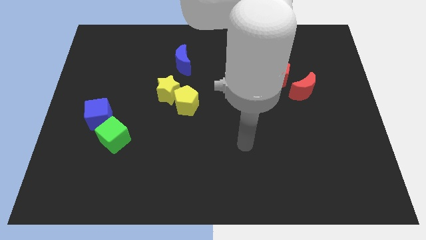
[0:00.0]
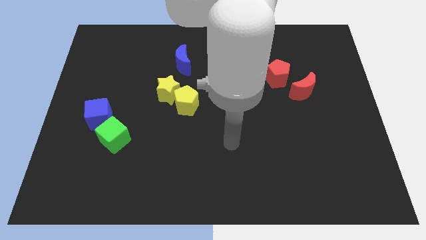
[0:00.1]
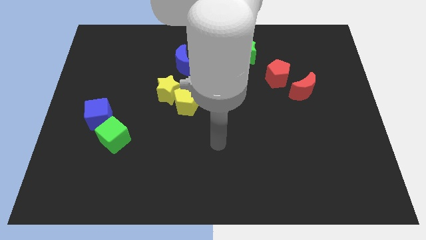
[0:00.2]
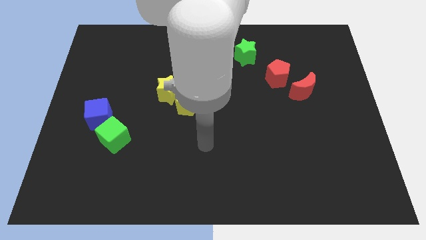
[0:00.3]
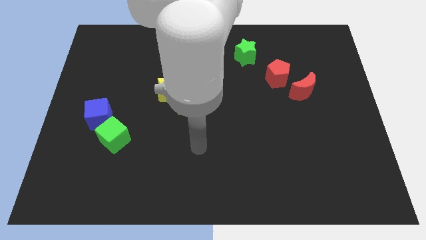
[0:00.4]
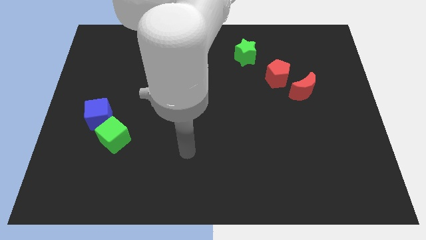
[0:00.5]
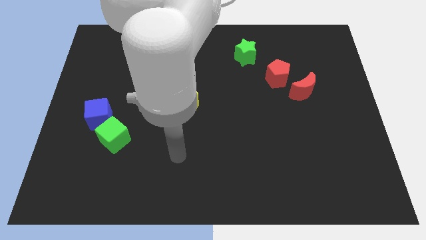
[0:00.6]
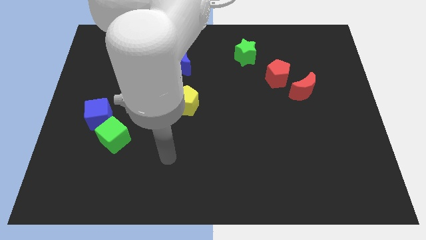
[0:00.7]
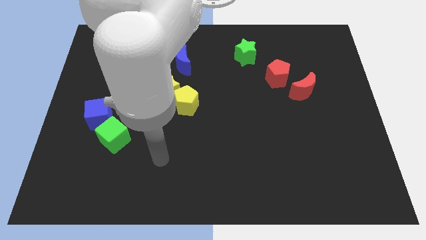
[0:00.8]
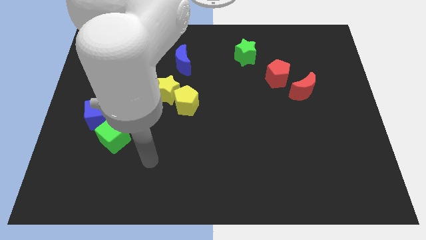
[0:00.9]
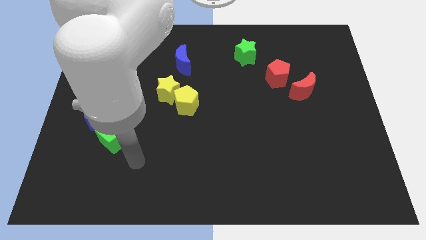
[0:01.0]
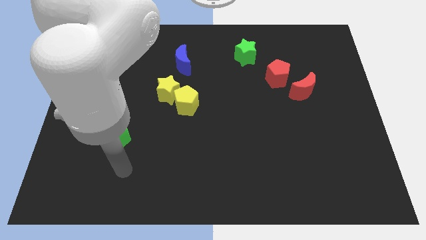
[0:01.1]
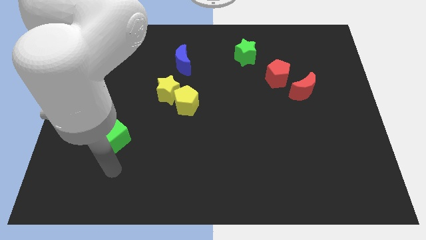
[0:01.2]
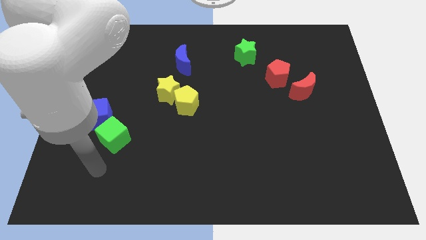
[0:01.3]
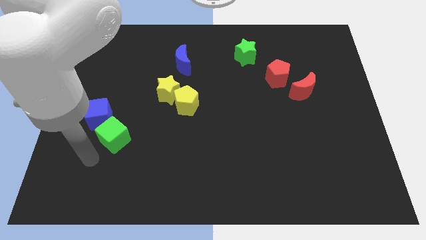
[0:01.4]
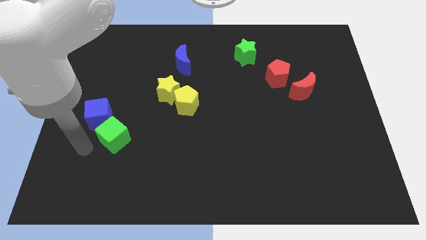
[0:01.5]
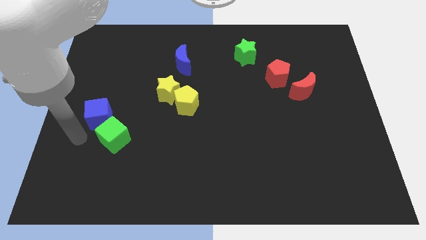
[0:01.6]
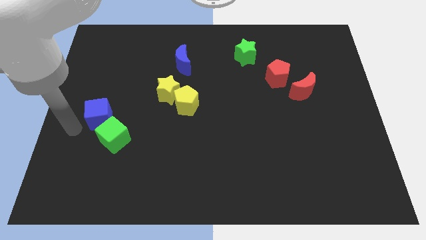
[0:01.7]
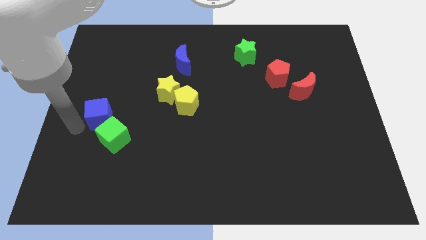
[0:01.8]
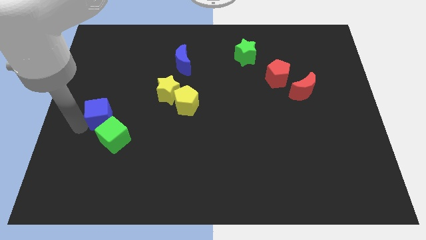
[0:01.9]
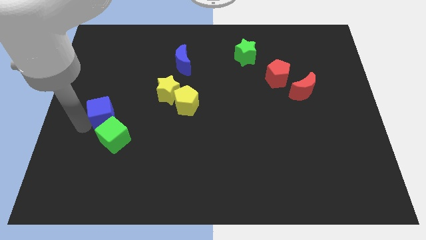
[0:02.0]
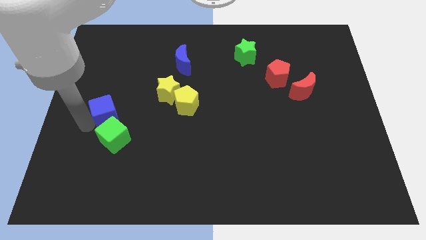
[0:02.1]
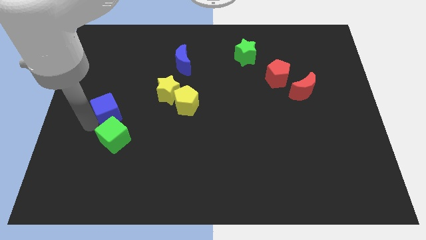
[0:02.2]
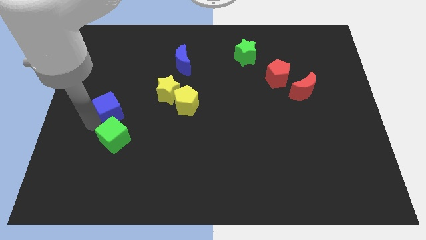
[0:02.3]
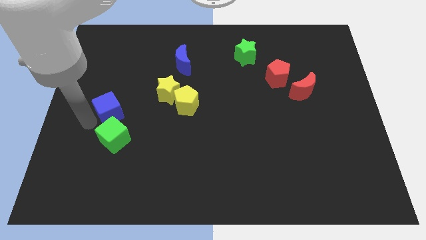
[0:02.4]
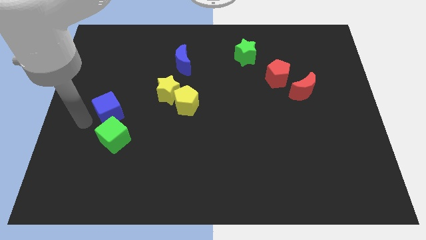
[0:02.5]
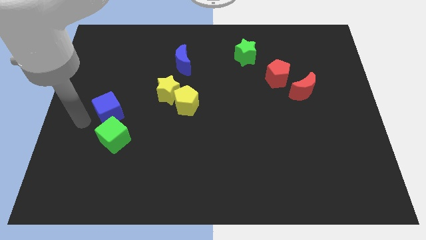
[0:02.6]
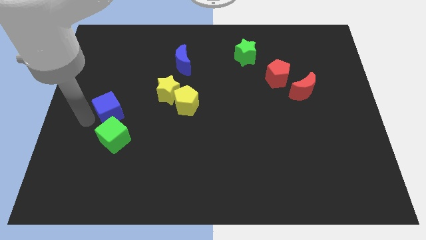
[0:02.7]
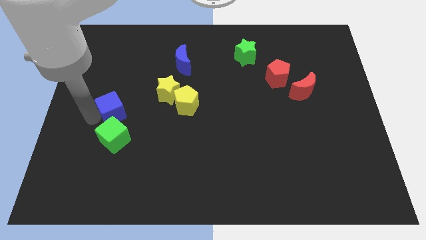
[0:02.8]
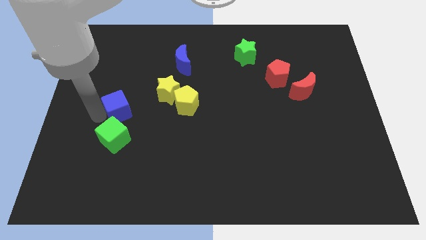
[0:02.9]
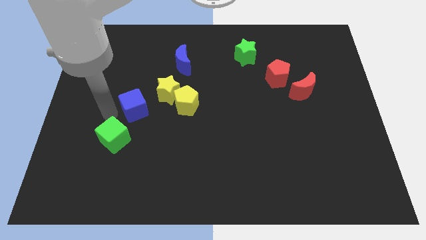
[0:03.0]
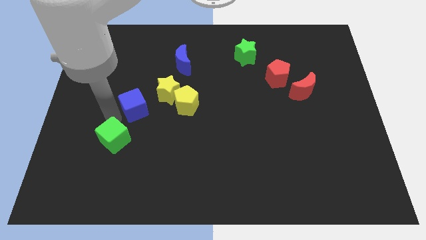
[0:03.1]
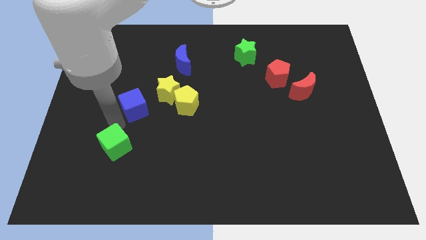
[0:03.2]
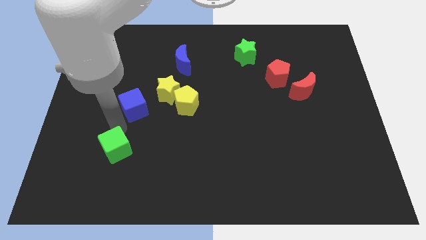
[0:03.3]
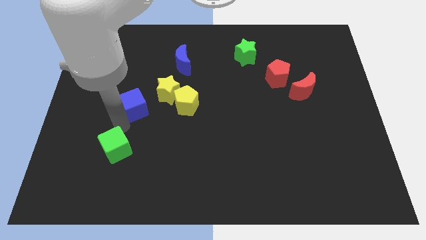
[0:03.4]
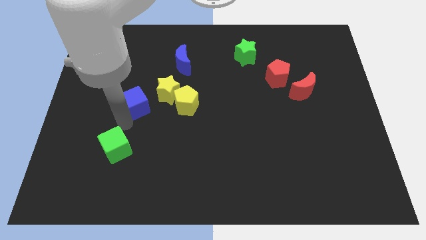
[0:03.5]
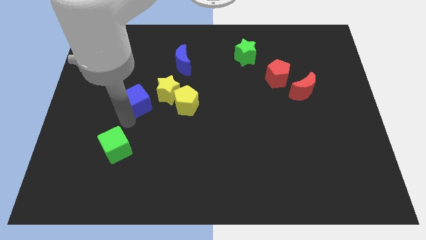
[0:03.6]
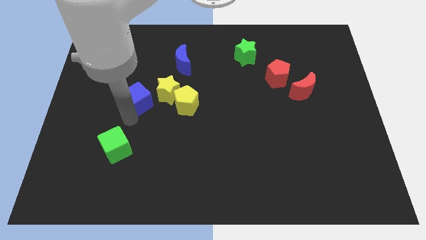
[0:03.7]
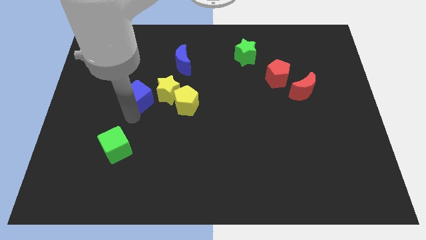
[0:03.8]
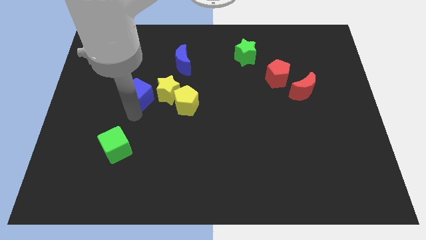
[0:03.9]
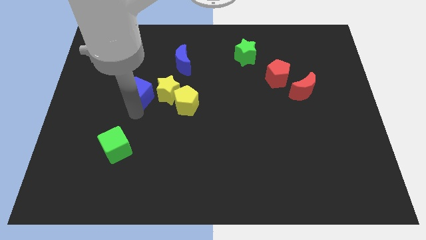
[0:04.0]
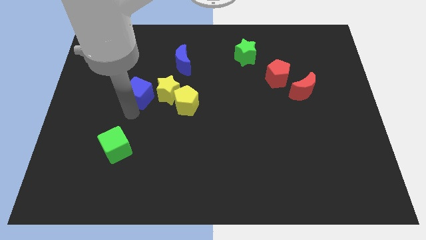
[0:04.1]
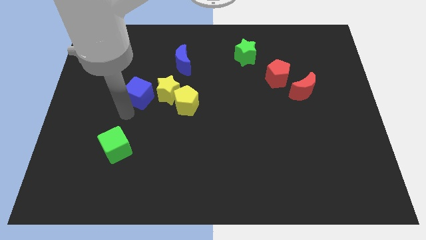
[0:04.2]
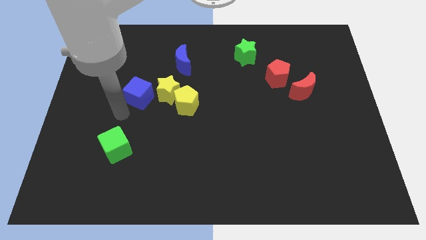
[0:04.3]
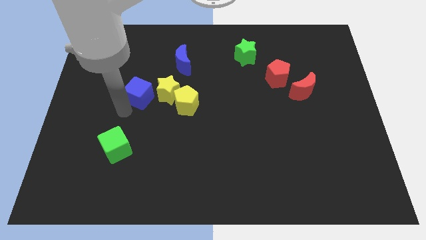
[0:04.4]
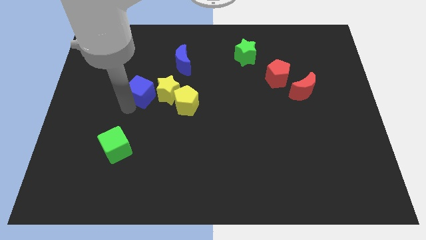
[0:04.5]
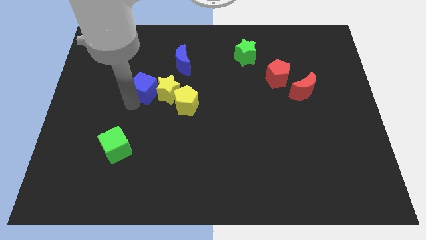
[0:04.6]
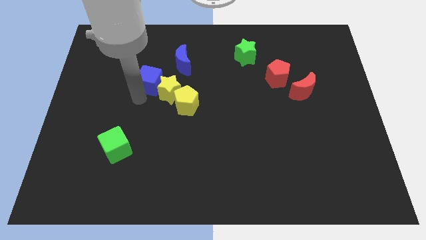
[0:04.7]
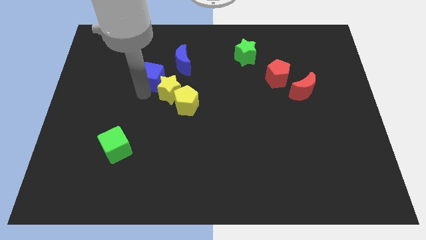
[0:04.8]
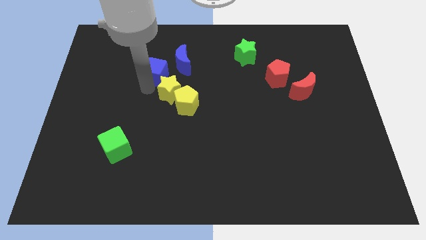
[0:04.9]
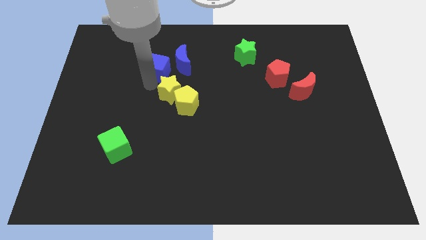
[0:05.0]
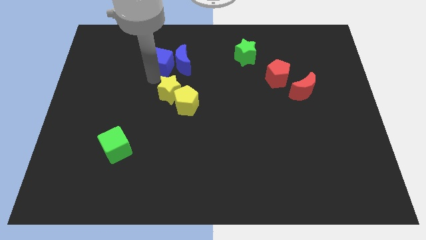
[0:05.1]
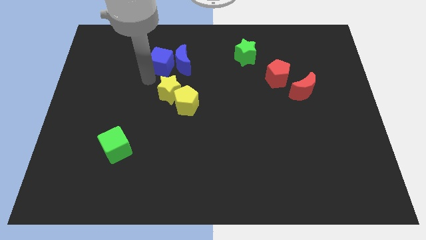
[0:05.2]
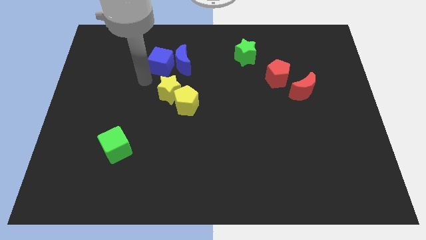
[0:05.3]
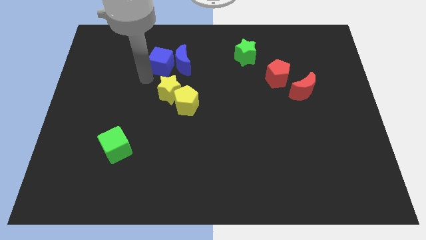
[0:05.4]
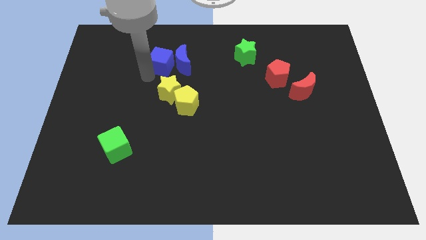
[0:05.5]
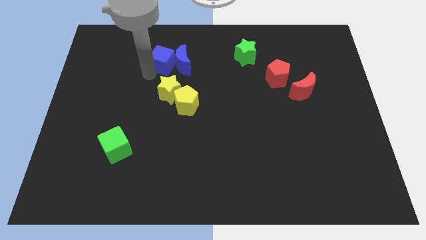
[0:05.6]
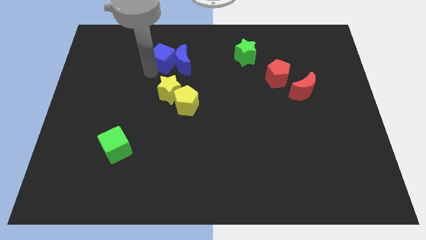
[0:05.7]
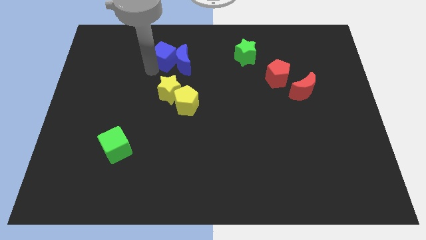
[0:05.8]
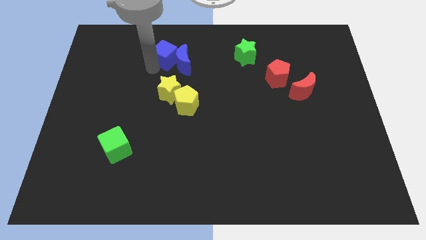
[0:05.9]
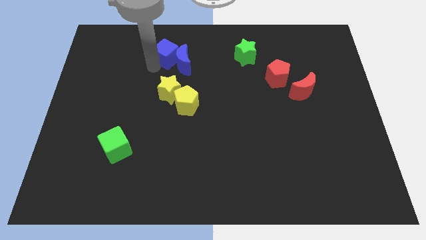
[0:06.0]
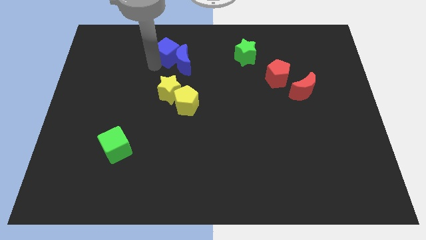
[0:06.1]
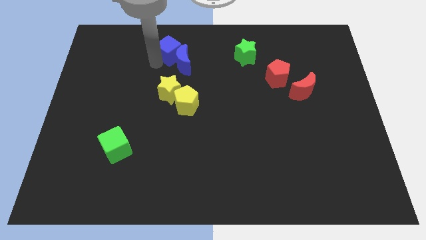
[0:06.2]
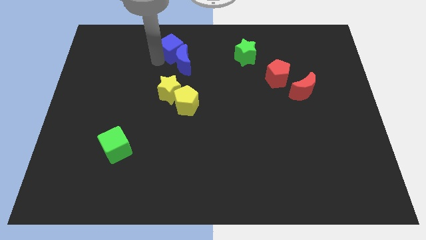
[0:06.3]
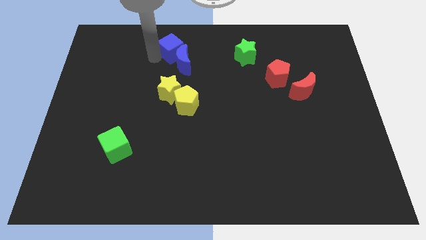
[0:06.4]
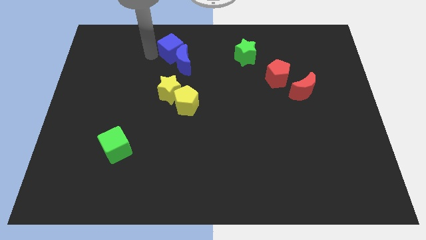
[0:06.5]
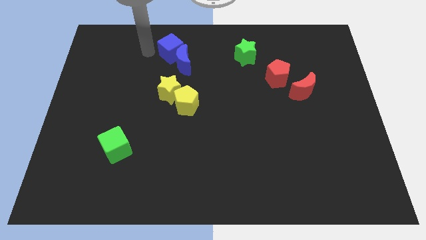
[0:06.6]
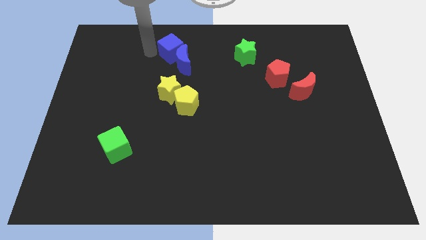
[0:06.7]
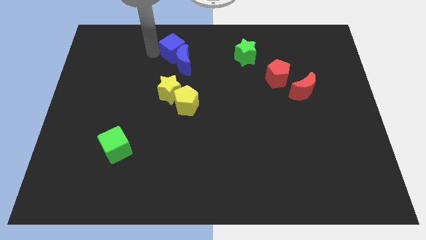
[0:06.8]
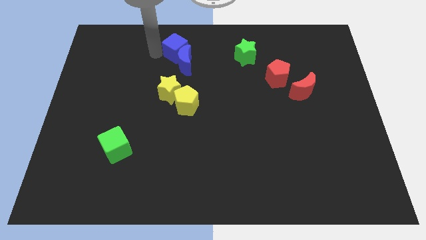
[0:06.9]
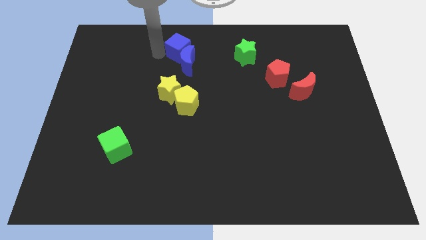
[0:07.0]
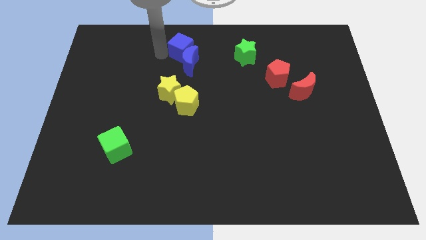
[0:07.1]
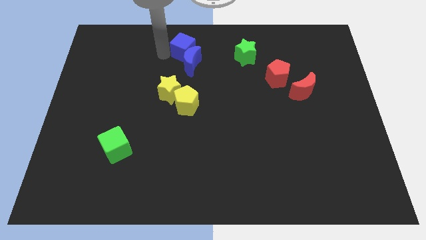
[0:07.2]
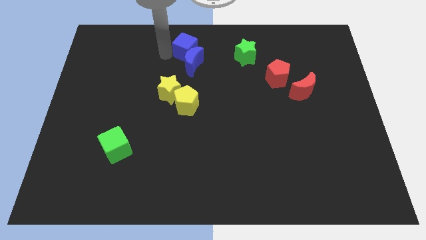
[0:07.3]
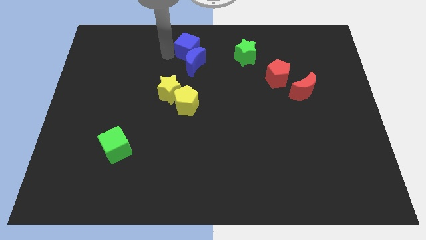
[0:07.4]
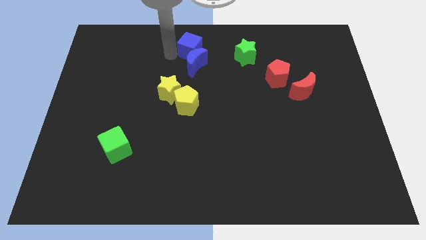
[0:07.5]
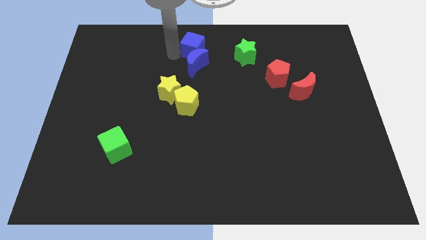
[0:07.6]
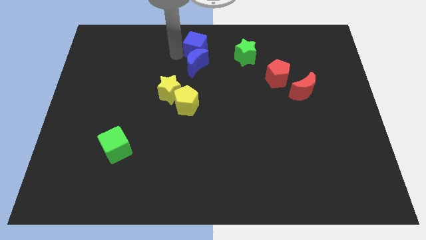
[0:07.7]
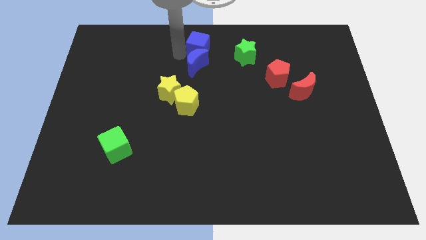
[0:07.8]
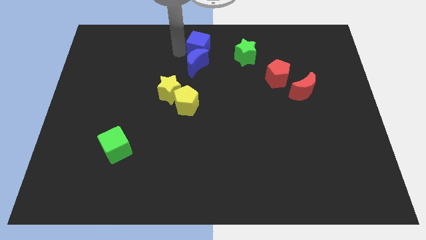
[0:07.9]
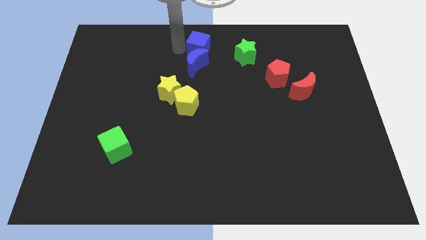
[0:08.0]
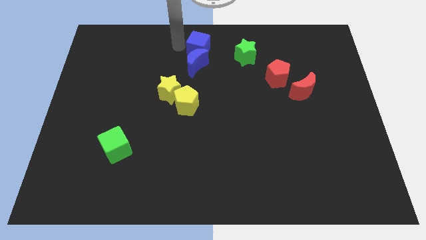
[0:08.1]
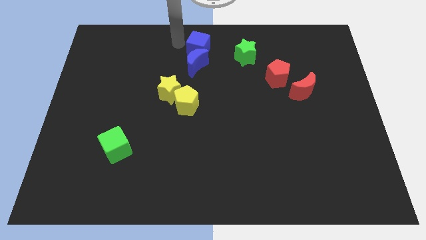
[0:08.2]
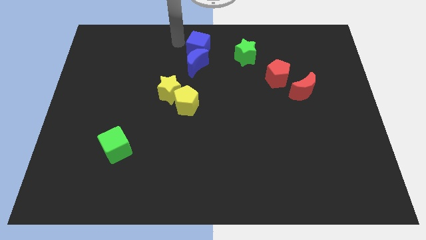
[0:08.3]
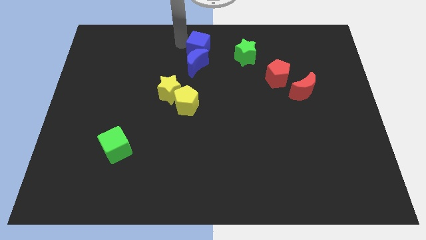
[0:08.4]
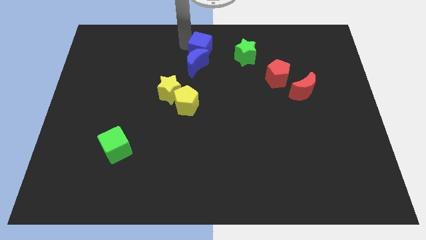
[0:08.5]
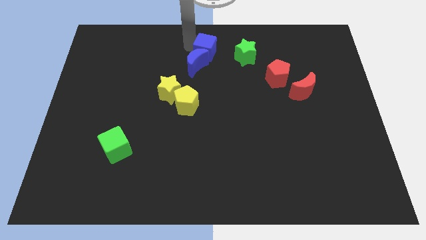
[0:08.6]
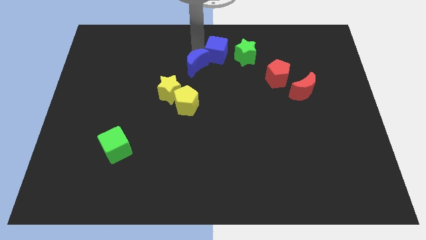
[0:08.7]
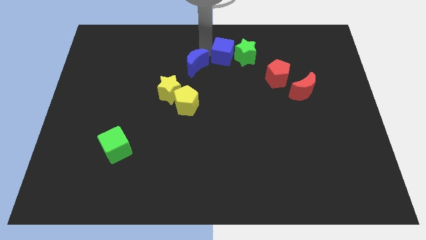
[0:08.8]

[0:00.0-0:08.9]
put the blue cube to the green star
